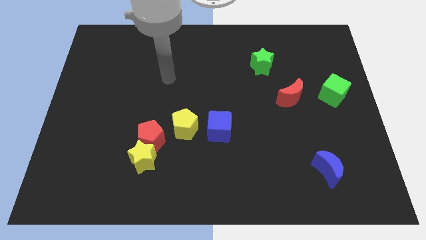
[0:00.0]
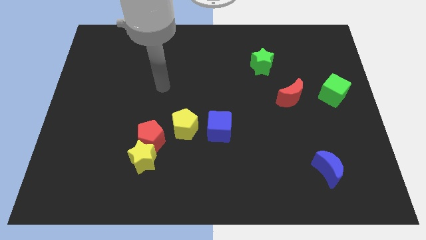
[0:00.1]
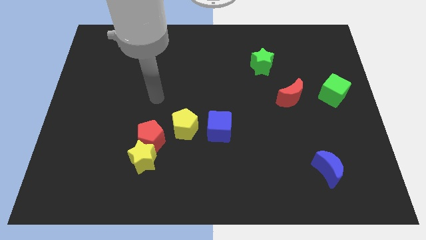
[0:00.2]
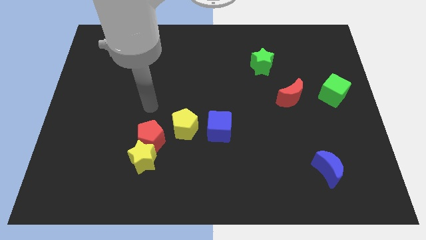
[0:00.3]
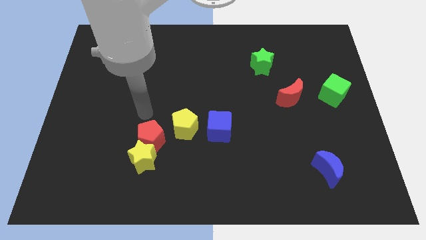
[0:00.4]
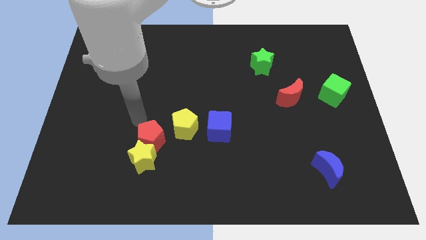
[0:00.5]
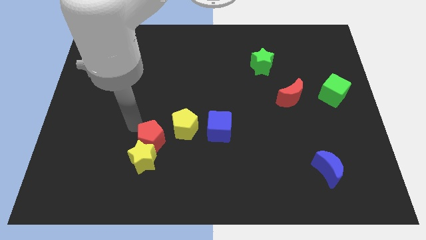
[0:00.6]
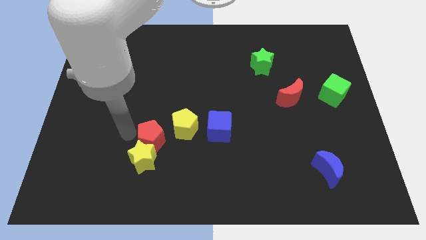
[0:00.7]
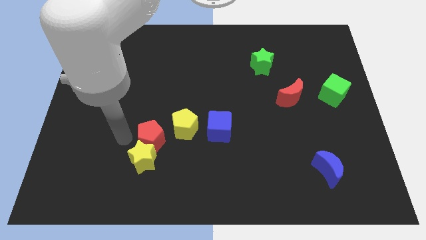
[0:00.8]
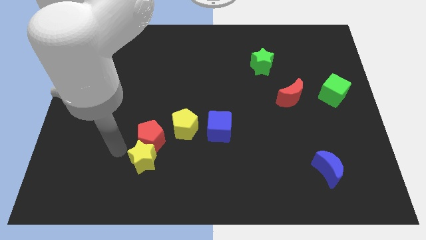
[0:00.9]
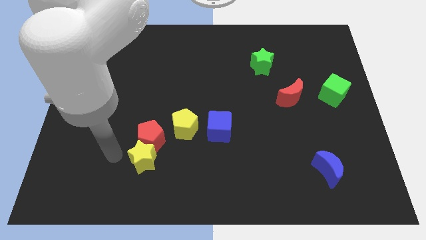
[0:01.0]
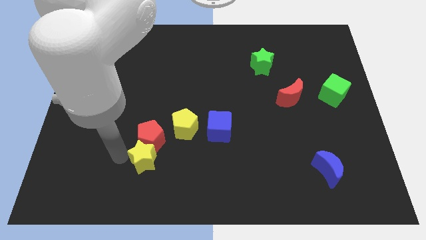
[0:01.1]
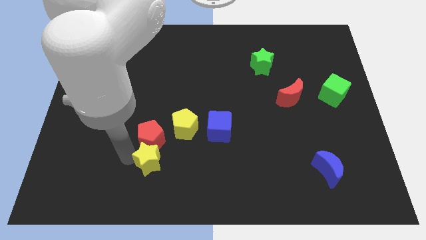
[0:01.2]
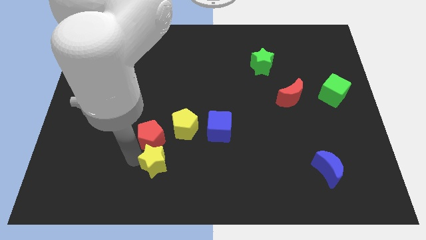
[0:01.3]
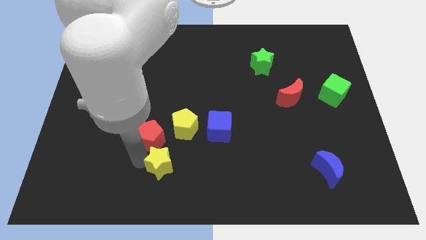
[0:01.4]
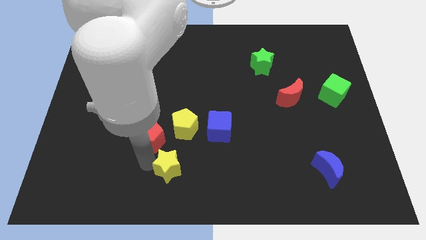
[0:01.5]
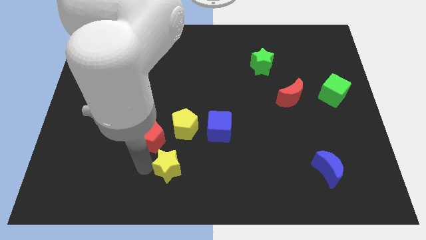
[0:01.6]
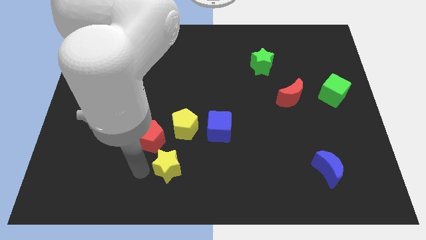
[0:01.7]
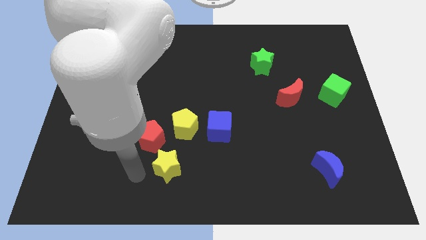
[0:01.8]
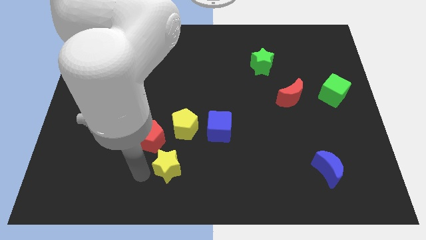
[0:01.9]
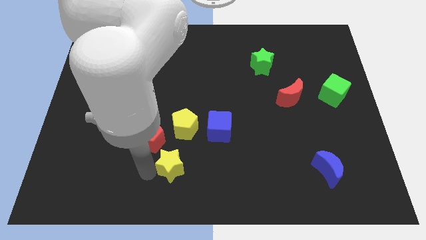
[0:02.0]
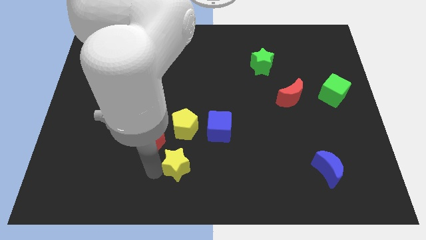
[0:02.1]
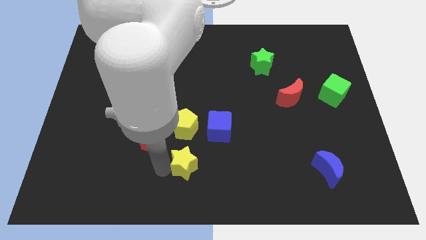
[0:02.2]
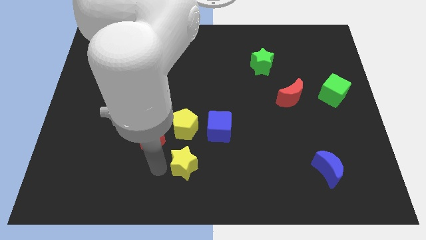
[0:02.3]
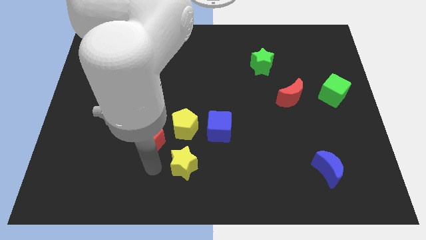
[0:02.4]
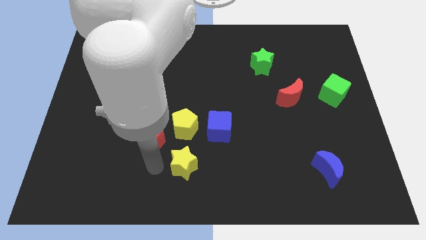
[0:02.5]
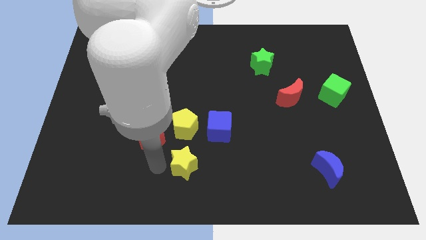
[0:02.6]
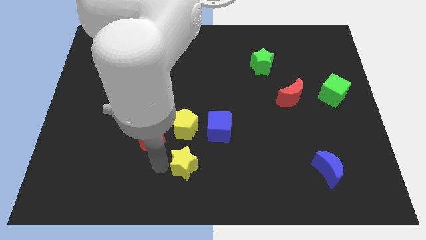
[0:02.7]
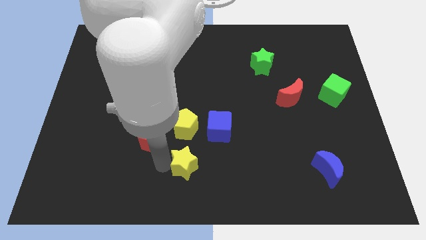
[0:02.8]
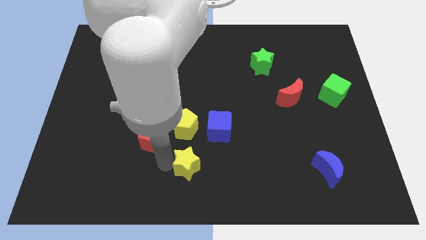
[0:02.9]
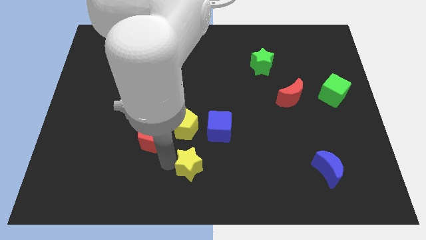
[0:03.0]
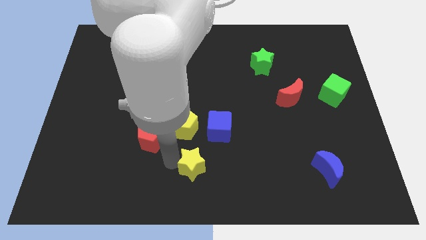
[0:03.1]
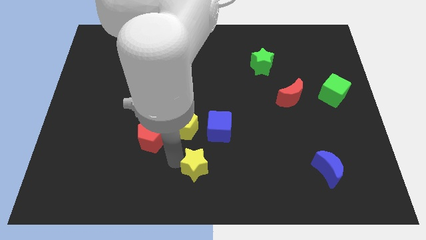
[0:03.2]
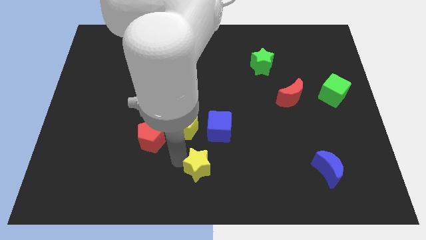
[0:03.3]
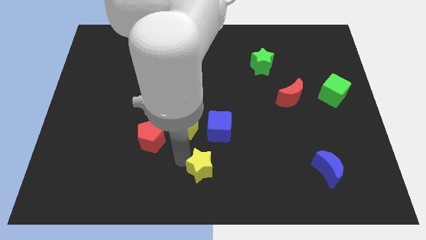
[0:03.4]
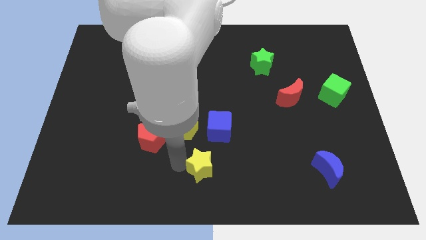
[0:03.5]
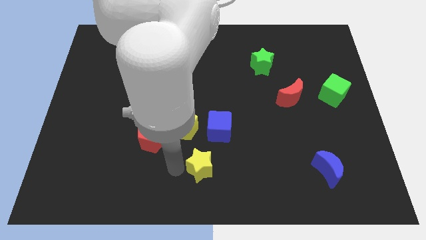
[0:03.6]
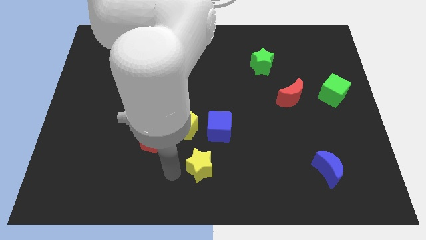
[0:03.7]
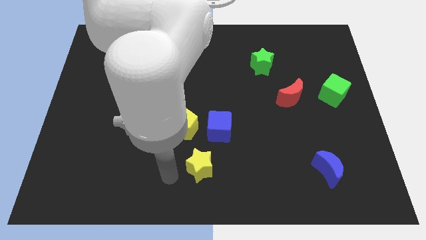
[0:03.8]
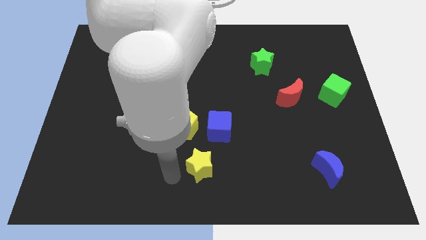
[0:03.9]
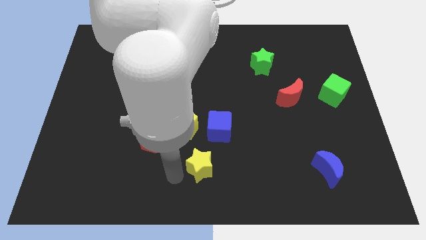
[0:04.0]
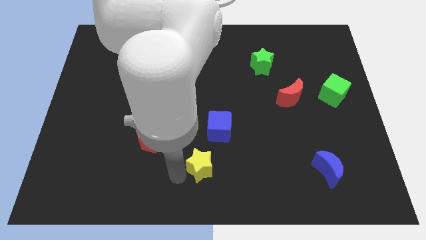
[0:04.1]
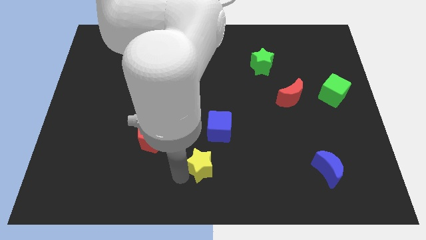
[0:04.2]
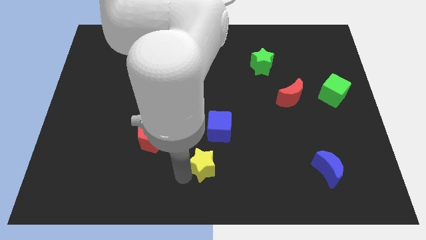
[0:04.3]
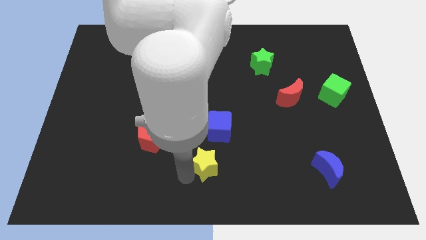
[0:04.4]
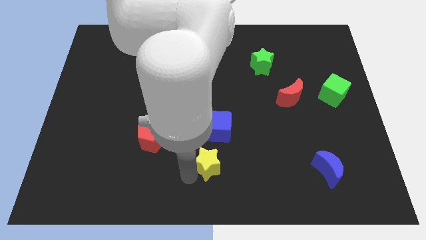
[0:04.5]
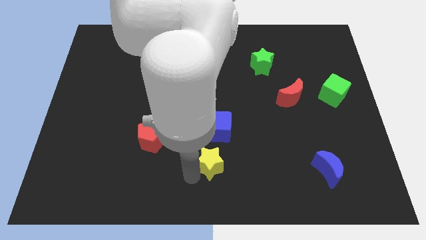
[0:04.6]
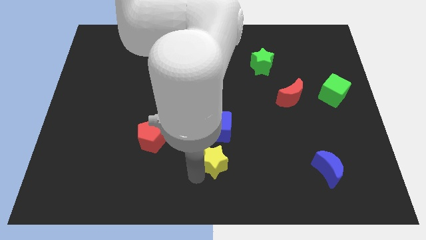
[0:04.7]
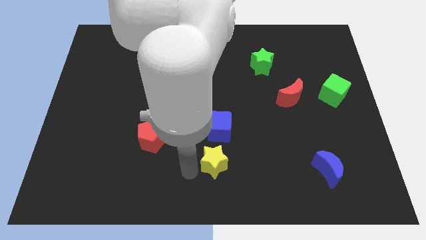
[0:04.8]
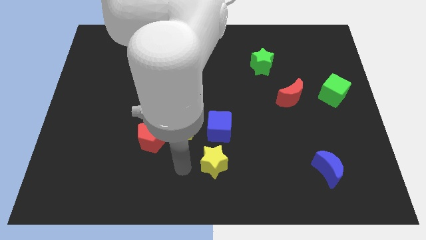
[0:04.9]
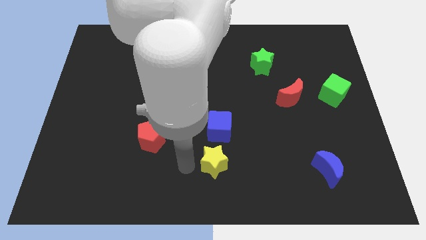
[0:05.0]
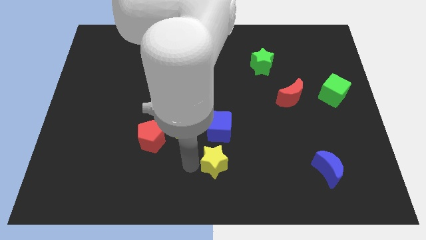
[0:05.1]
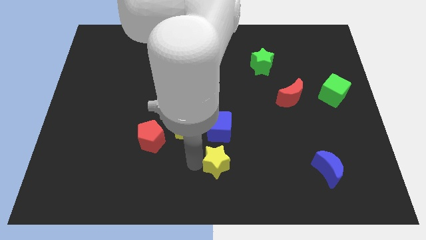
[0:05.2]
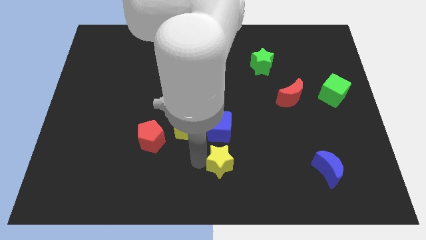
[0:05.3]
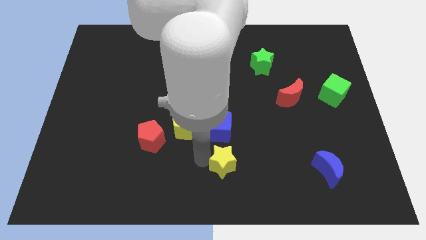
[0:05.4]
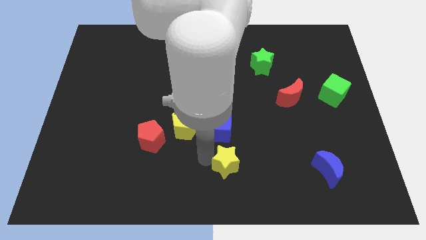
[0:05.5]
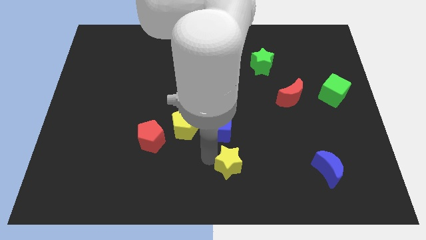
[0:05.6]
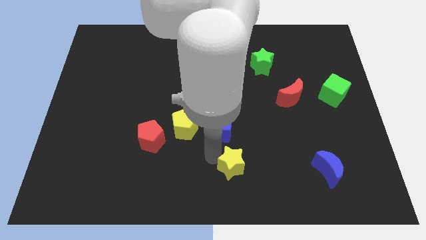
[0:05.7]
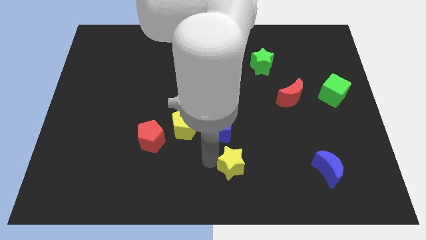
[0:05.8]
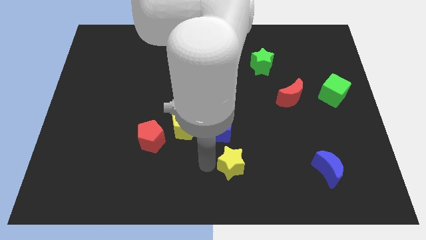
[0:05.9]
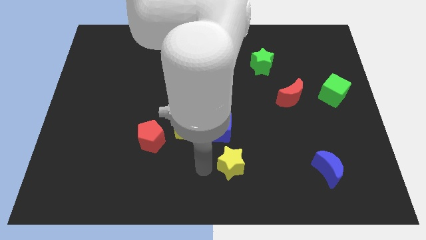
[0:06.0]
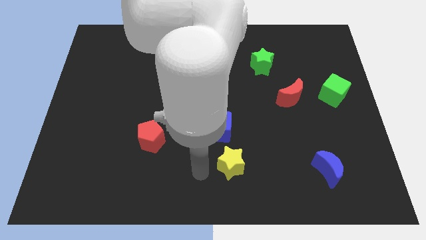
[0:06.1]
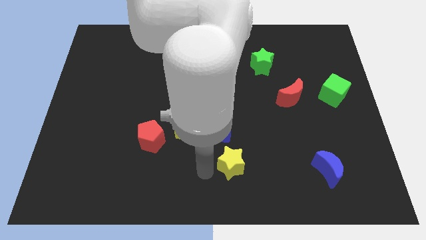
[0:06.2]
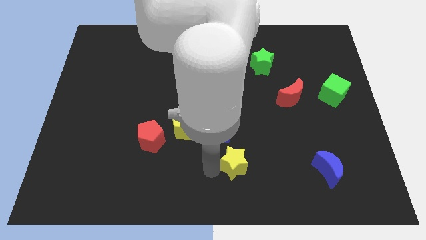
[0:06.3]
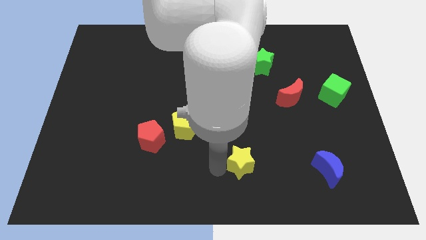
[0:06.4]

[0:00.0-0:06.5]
move the yellow star to the right

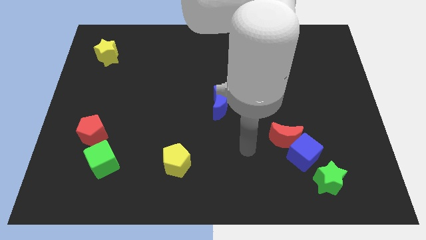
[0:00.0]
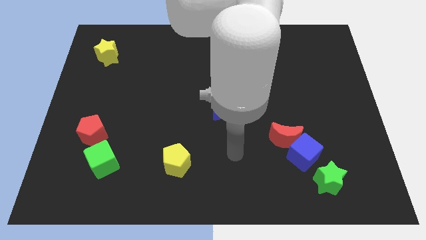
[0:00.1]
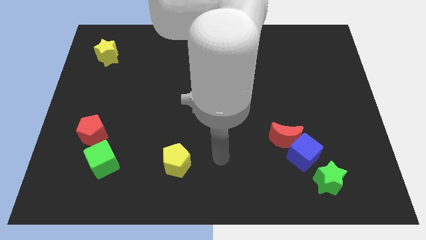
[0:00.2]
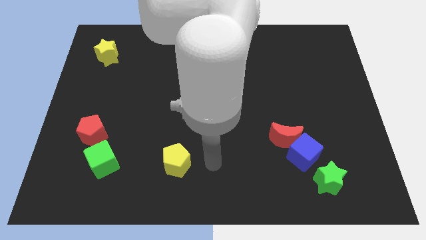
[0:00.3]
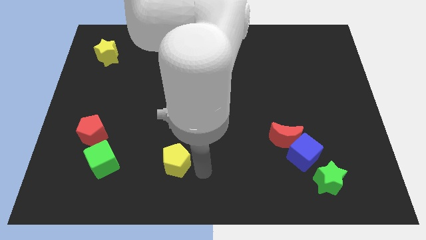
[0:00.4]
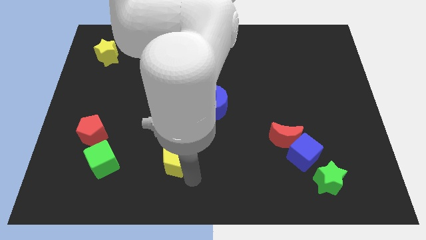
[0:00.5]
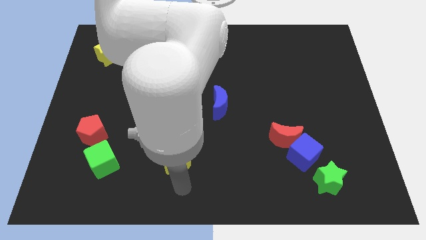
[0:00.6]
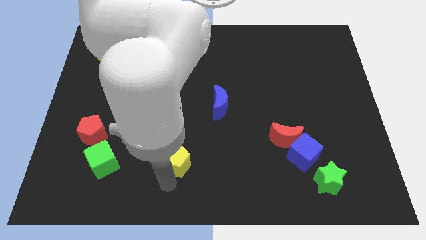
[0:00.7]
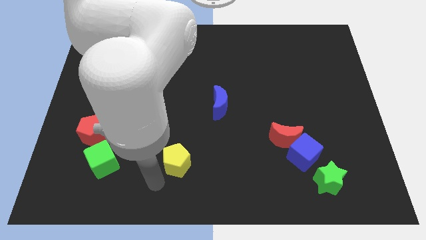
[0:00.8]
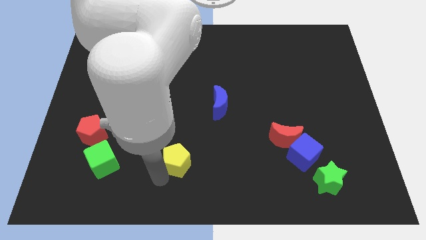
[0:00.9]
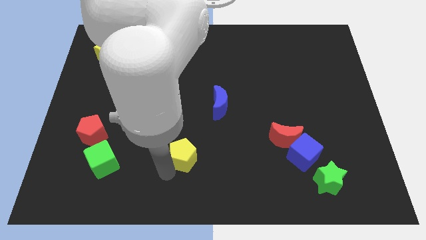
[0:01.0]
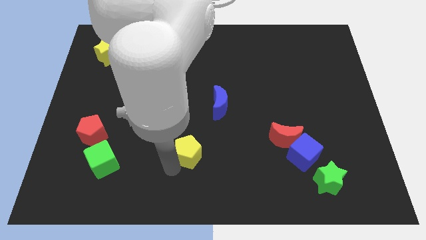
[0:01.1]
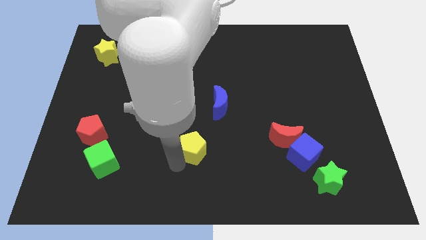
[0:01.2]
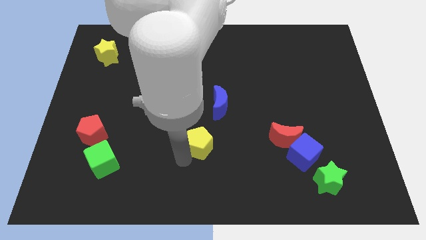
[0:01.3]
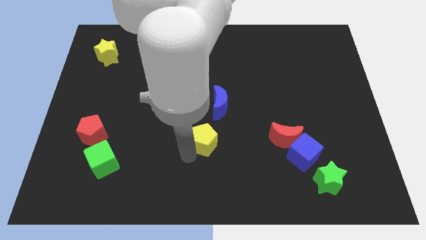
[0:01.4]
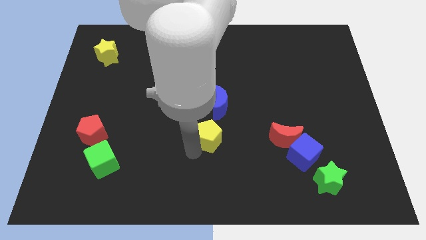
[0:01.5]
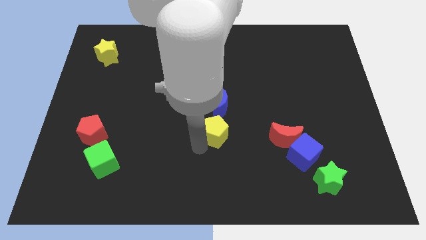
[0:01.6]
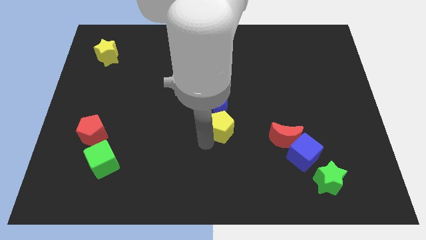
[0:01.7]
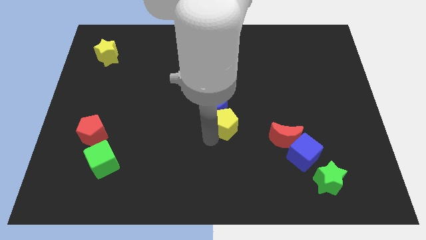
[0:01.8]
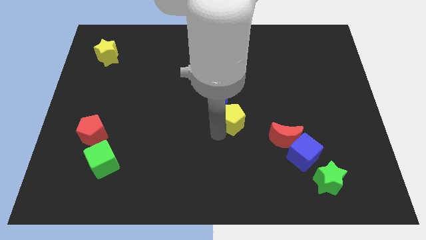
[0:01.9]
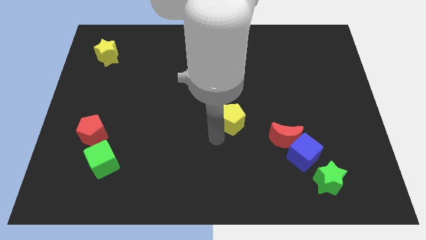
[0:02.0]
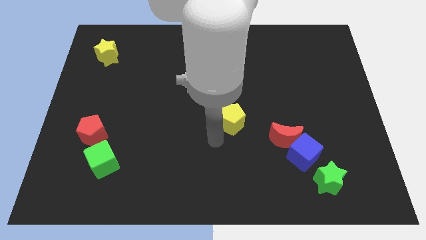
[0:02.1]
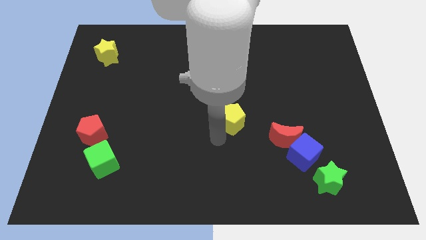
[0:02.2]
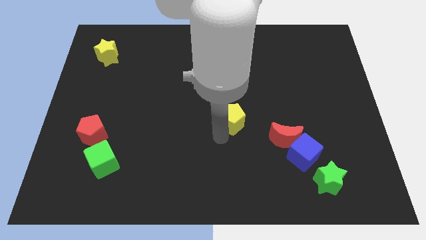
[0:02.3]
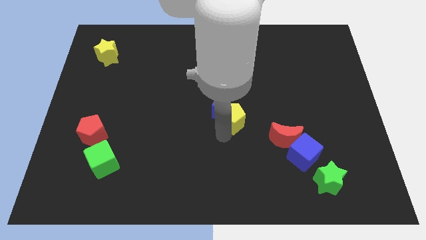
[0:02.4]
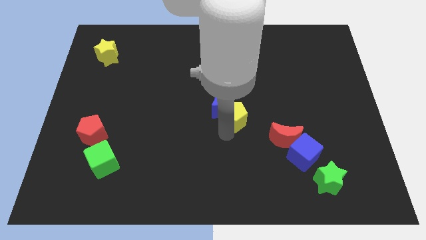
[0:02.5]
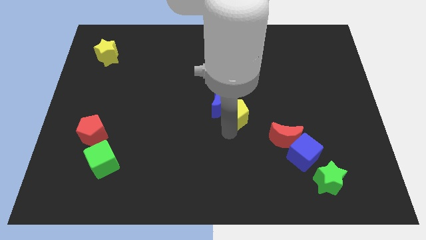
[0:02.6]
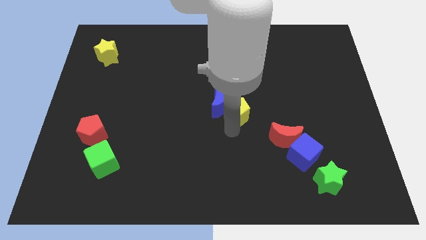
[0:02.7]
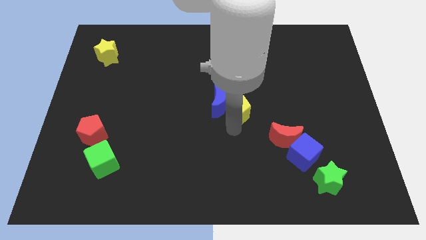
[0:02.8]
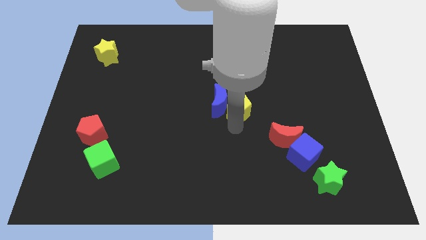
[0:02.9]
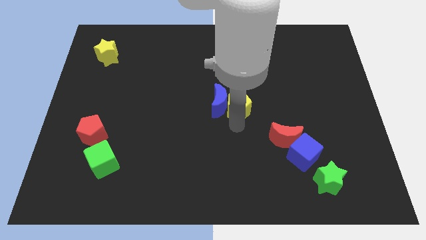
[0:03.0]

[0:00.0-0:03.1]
move the yellow pentagon up and right diagonally
